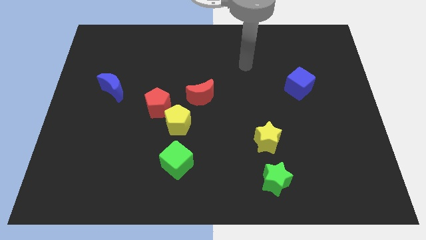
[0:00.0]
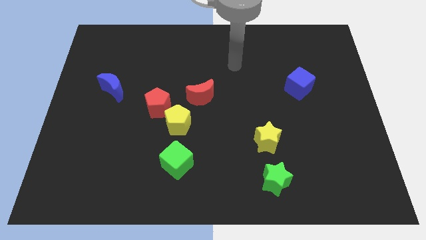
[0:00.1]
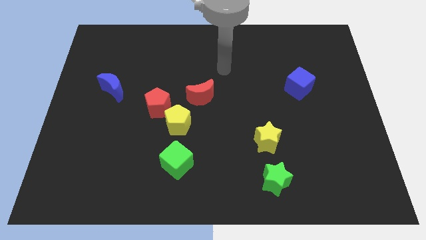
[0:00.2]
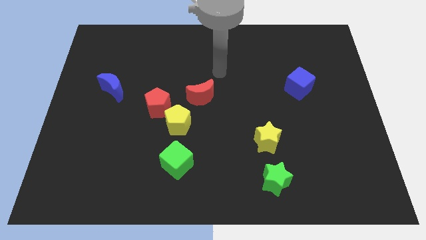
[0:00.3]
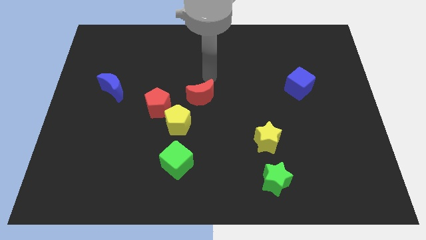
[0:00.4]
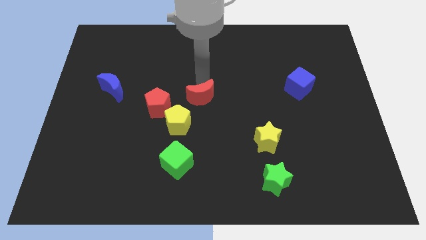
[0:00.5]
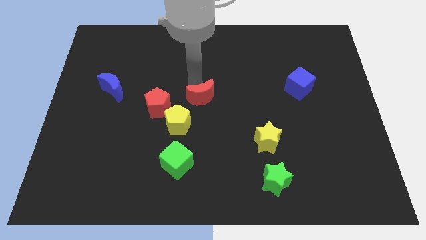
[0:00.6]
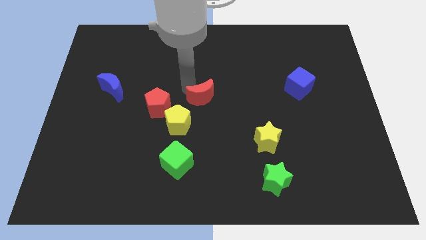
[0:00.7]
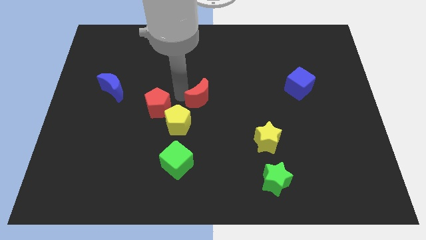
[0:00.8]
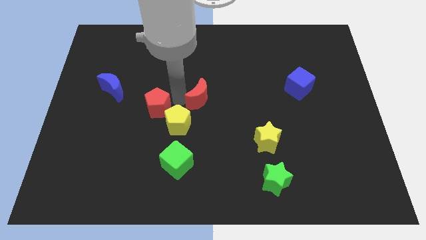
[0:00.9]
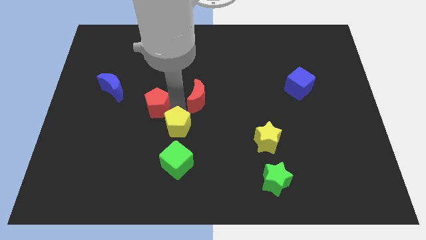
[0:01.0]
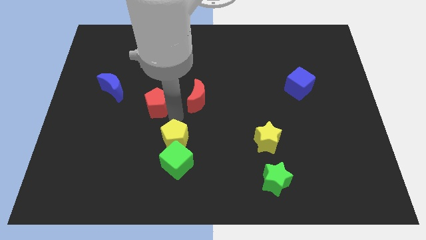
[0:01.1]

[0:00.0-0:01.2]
separate the red pentagon from the yellow pentagon

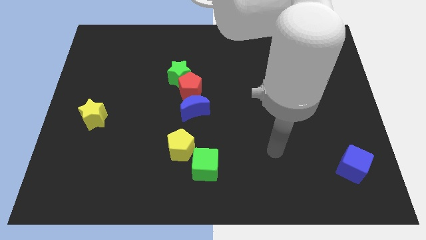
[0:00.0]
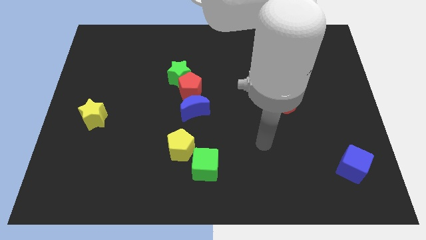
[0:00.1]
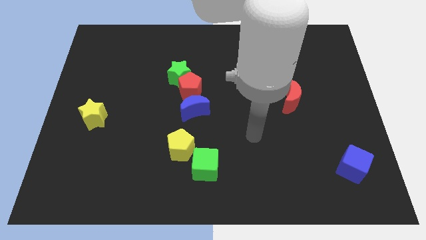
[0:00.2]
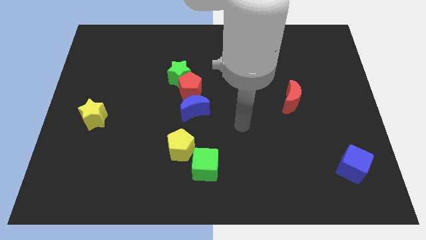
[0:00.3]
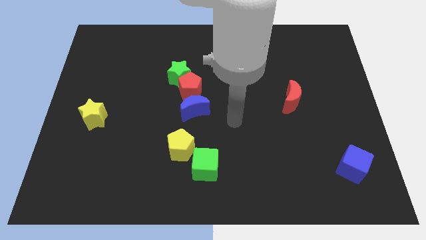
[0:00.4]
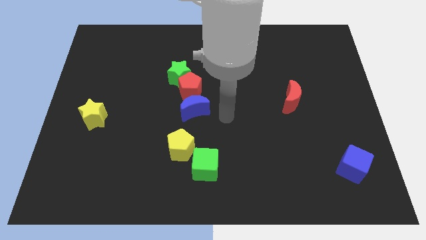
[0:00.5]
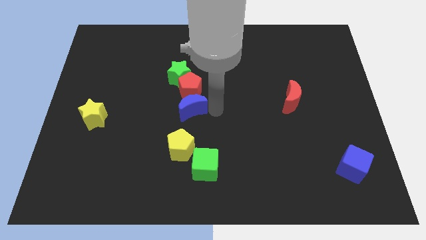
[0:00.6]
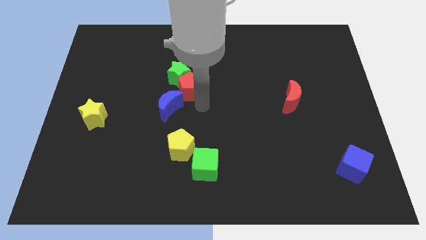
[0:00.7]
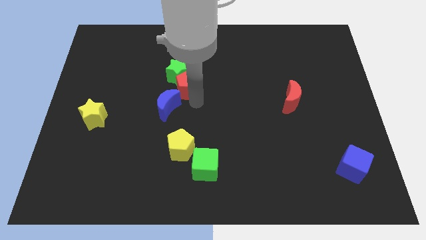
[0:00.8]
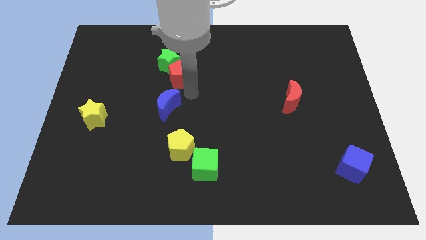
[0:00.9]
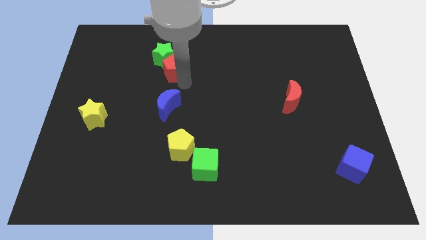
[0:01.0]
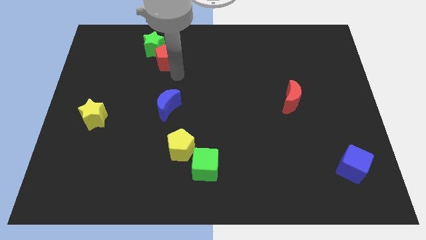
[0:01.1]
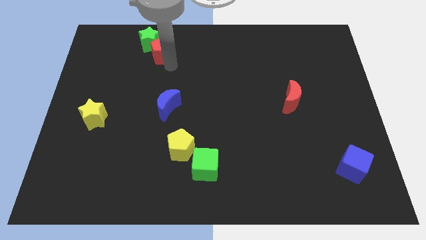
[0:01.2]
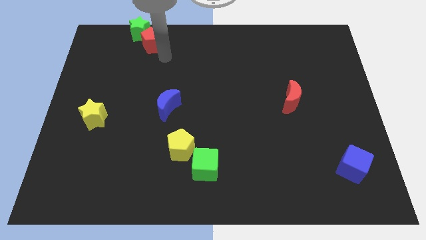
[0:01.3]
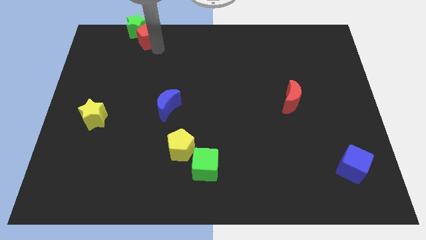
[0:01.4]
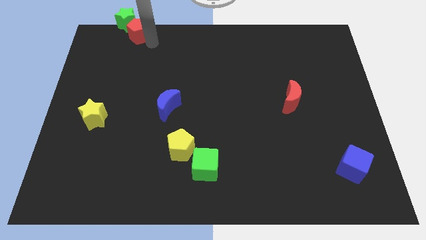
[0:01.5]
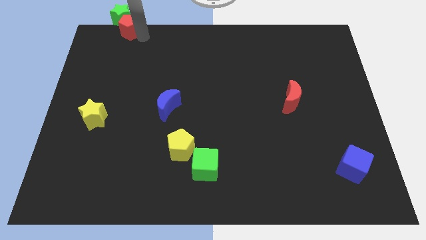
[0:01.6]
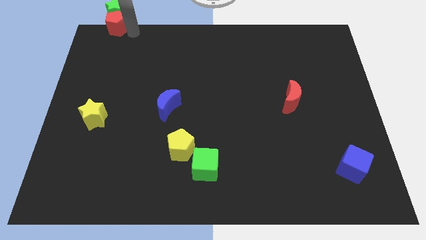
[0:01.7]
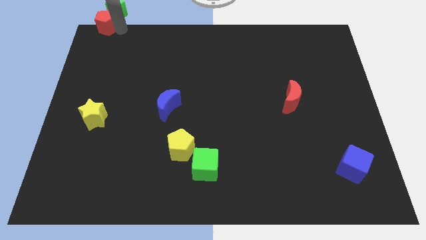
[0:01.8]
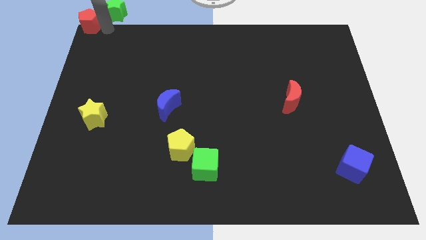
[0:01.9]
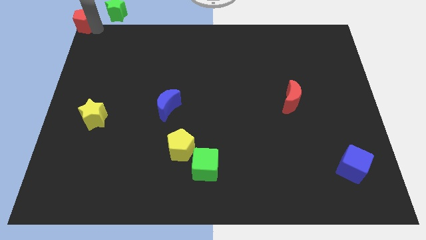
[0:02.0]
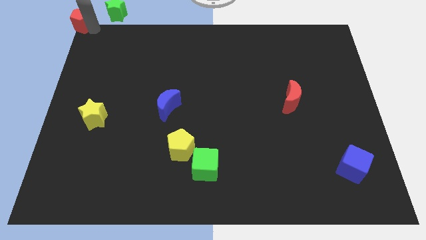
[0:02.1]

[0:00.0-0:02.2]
pull the green star apart from the red pentagon

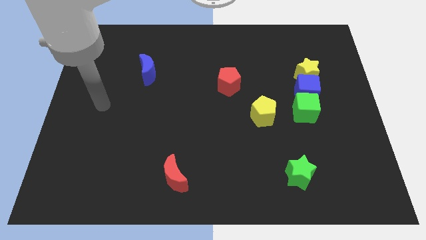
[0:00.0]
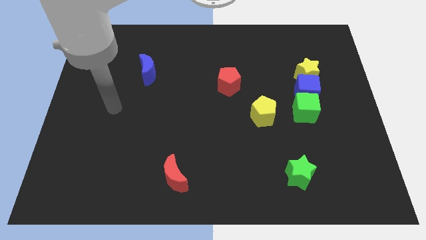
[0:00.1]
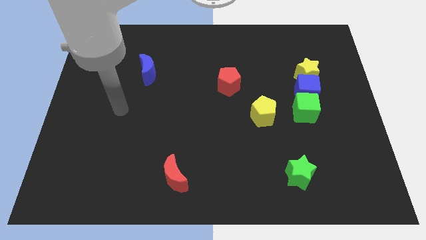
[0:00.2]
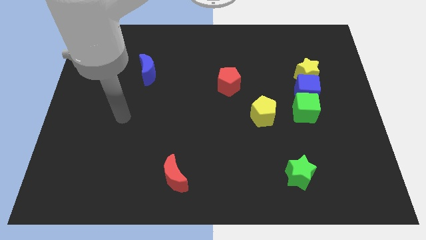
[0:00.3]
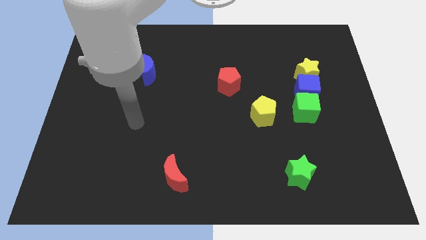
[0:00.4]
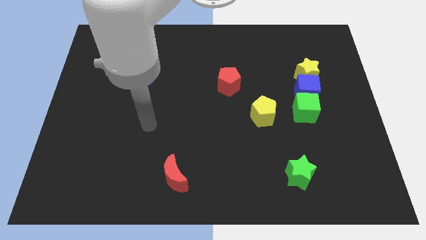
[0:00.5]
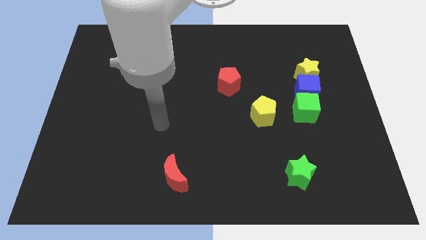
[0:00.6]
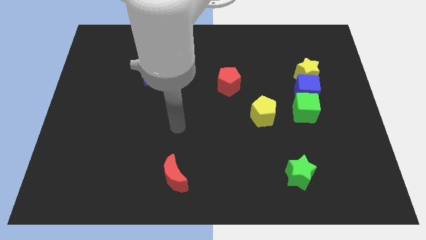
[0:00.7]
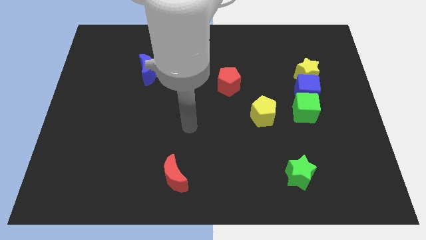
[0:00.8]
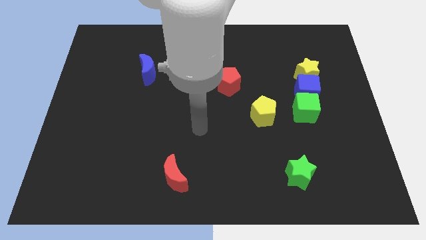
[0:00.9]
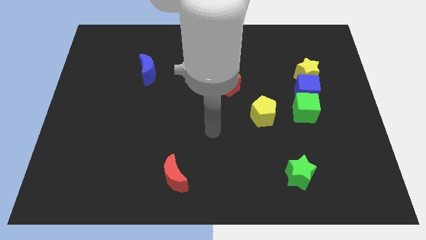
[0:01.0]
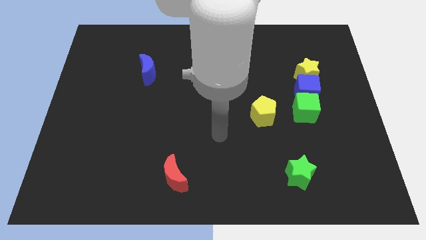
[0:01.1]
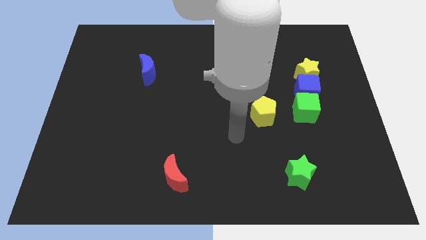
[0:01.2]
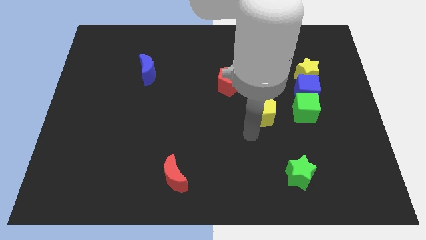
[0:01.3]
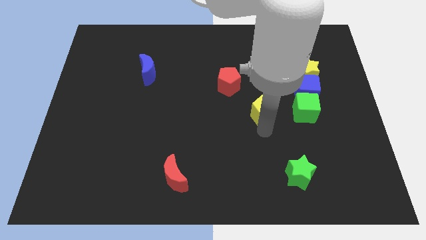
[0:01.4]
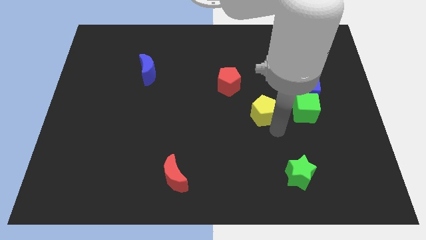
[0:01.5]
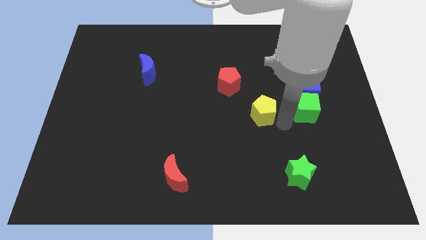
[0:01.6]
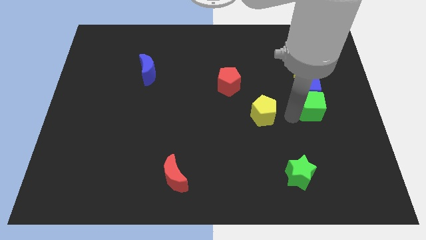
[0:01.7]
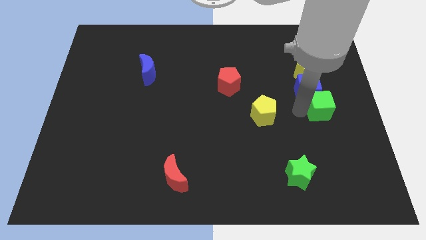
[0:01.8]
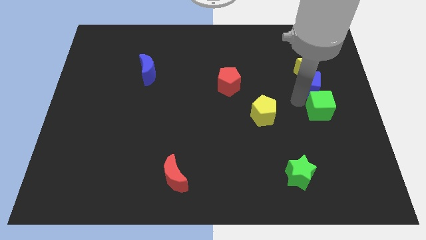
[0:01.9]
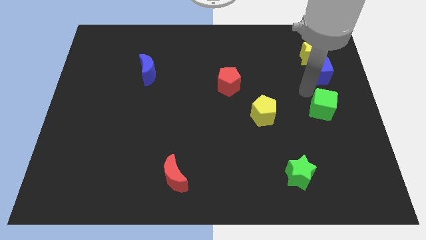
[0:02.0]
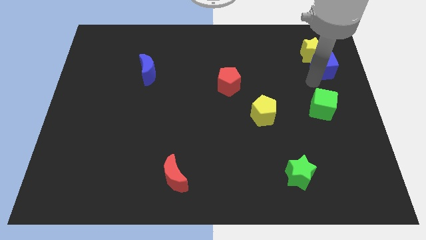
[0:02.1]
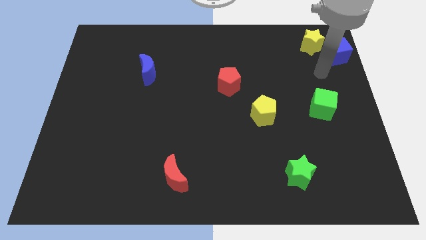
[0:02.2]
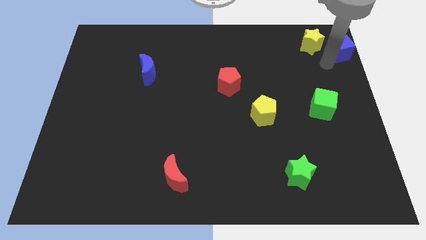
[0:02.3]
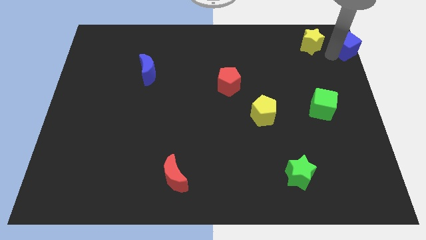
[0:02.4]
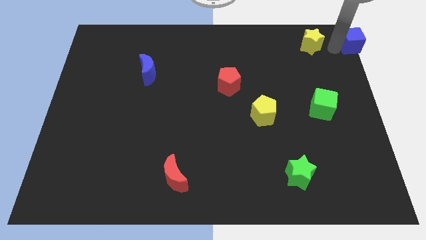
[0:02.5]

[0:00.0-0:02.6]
separate the yellow star from the blue cube

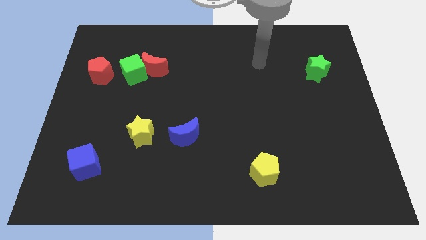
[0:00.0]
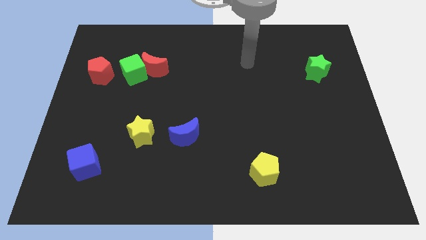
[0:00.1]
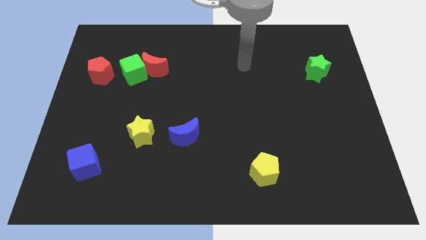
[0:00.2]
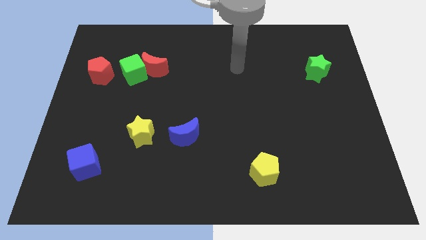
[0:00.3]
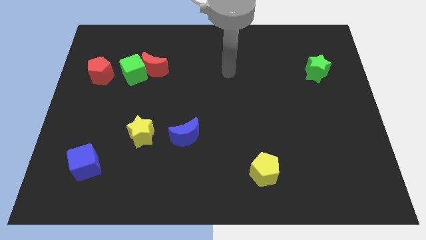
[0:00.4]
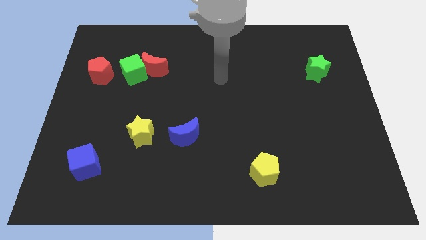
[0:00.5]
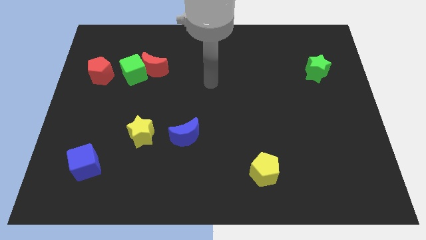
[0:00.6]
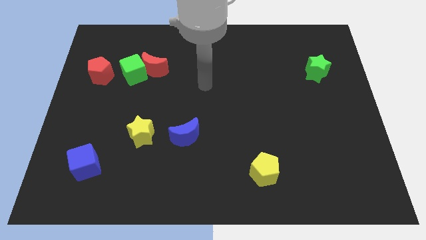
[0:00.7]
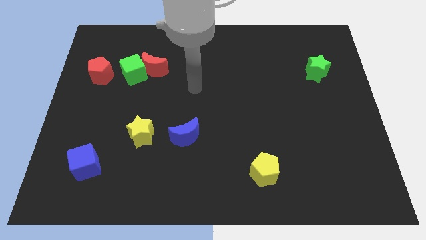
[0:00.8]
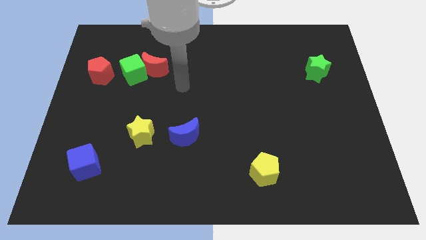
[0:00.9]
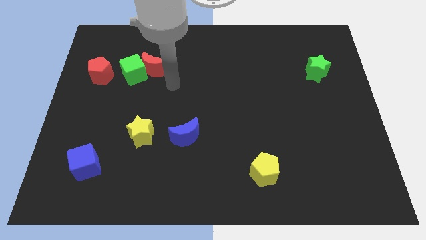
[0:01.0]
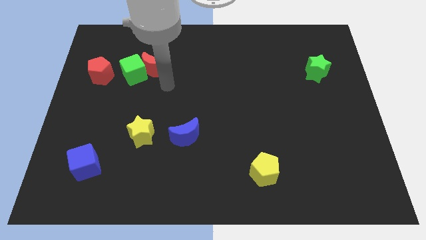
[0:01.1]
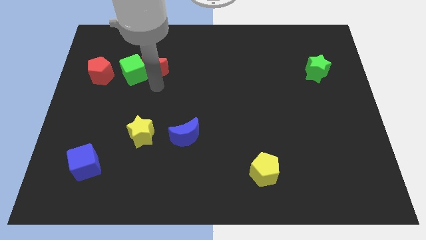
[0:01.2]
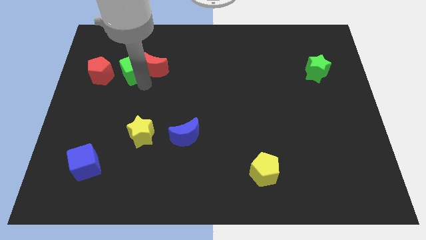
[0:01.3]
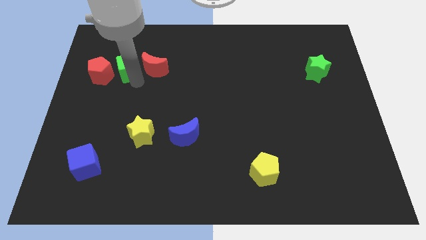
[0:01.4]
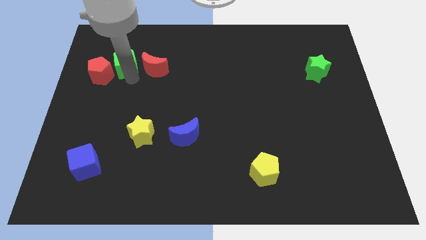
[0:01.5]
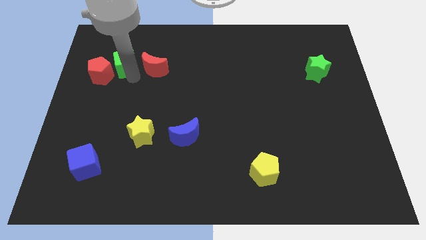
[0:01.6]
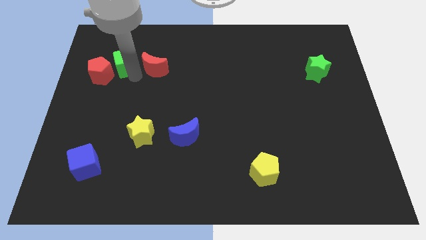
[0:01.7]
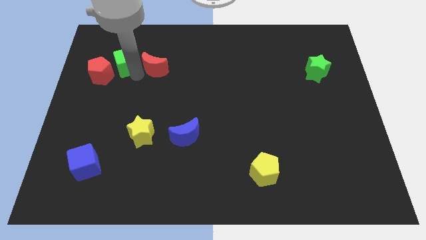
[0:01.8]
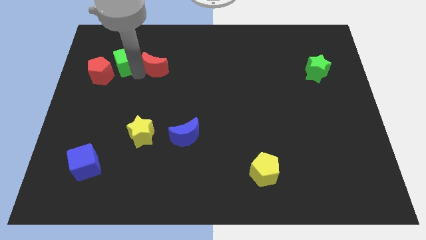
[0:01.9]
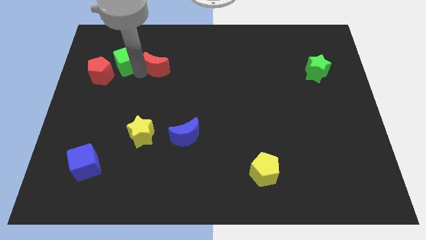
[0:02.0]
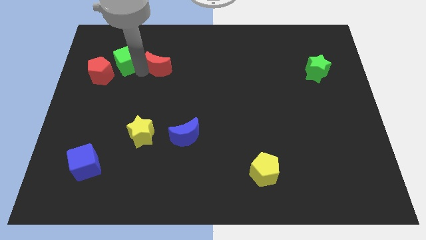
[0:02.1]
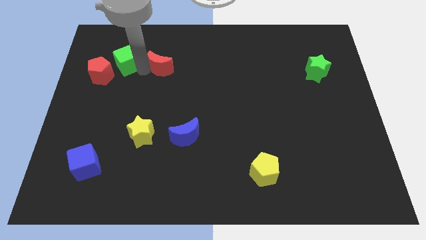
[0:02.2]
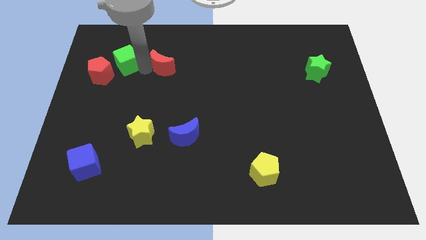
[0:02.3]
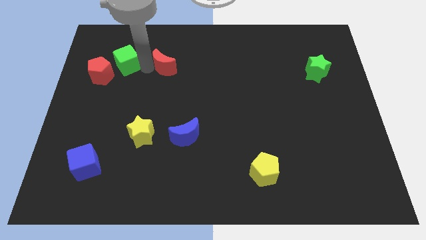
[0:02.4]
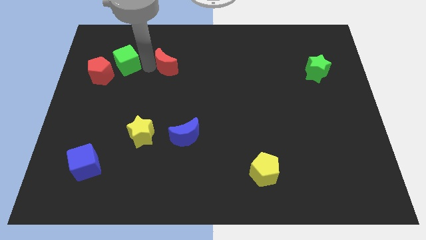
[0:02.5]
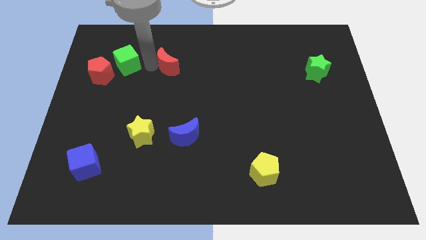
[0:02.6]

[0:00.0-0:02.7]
move the red moon away from the green cube

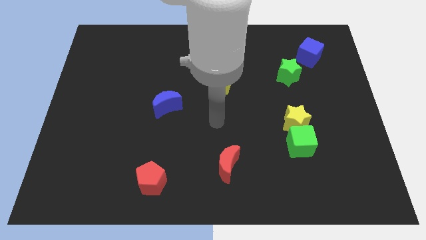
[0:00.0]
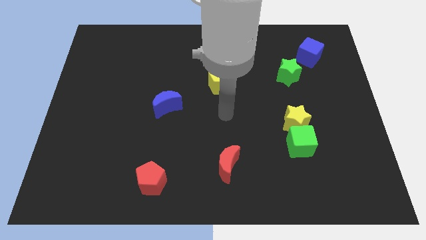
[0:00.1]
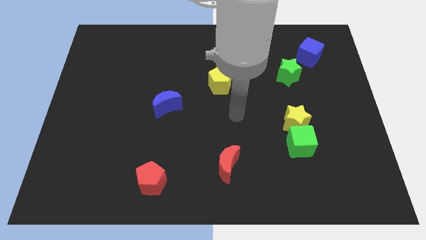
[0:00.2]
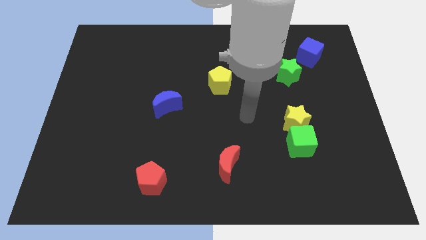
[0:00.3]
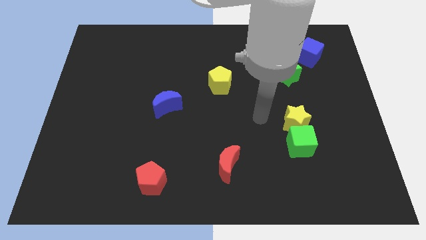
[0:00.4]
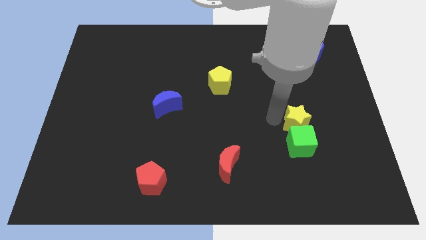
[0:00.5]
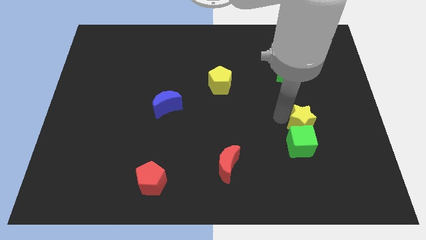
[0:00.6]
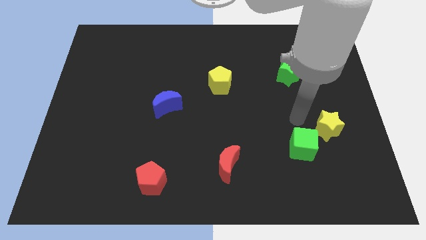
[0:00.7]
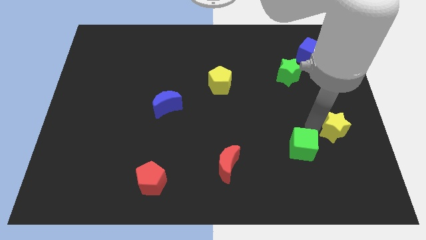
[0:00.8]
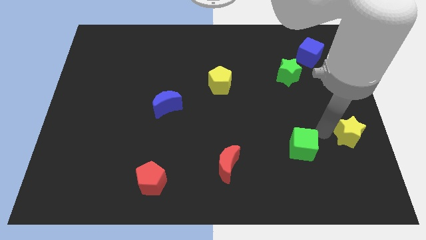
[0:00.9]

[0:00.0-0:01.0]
pull the green cube apart from the yellow star
